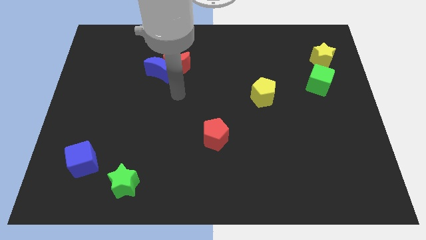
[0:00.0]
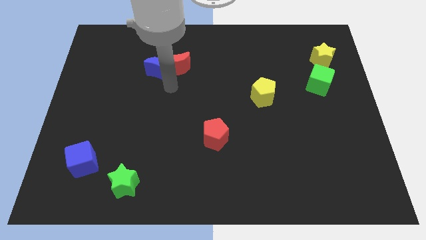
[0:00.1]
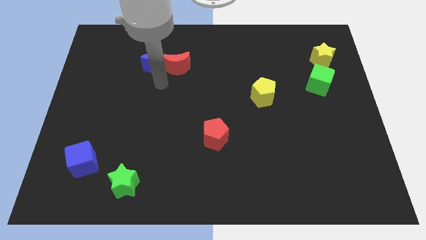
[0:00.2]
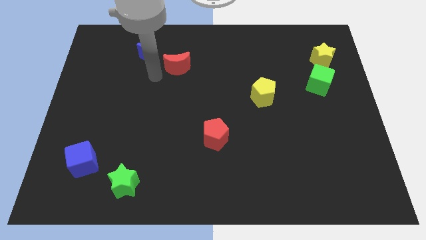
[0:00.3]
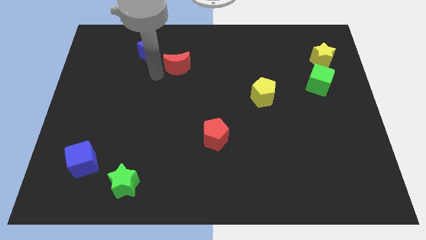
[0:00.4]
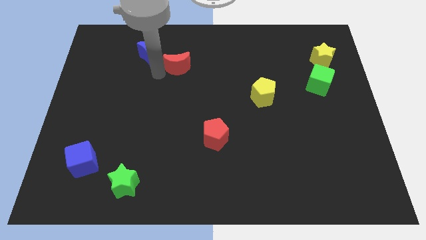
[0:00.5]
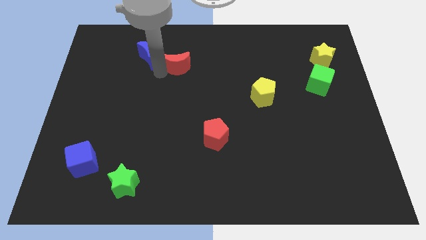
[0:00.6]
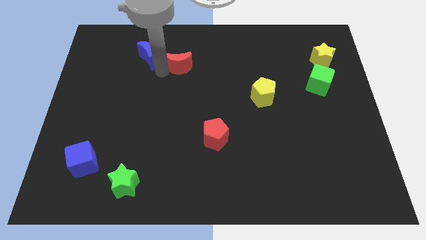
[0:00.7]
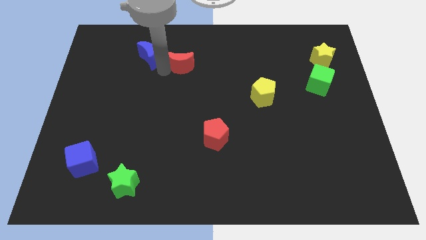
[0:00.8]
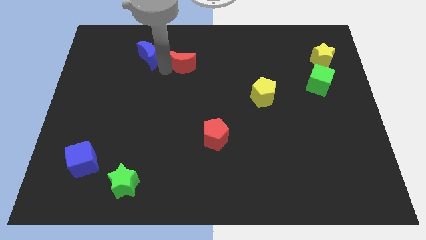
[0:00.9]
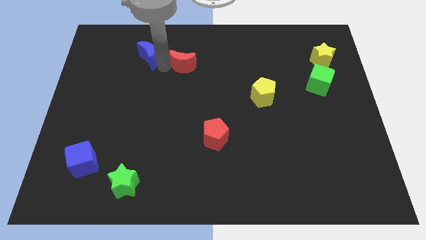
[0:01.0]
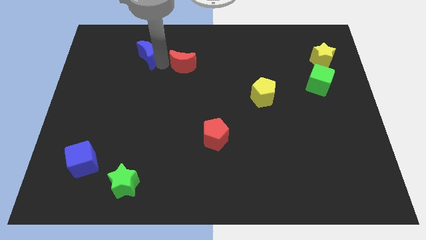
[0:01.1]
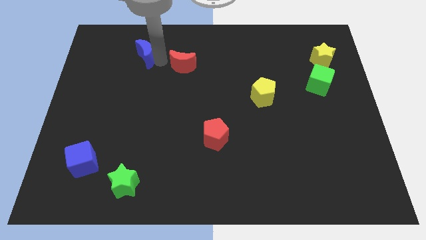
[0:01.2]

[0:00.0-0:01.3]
pull the red moon apart from the blue moon

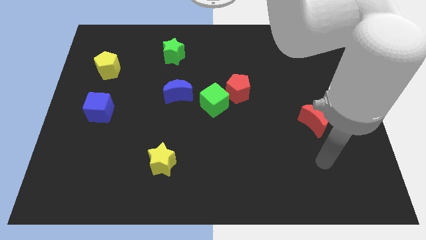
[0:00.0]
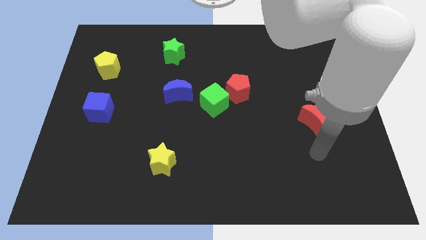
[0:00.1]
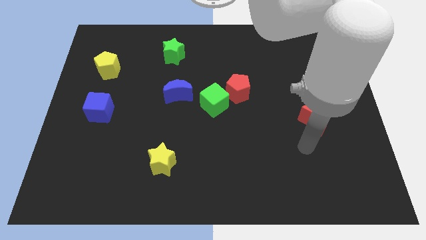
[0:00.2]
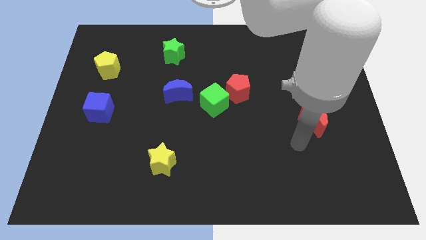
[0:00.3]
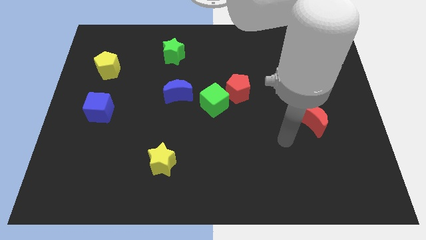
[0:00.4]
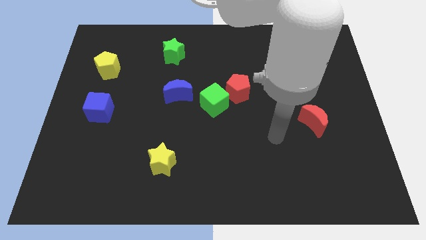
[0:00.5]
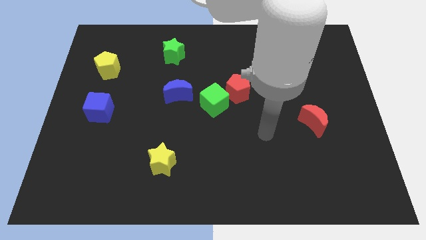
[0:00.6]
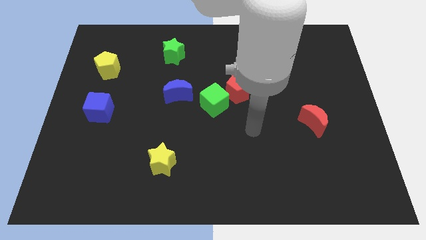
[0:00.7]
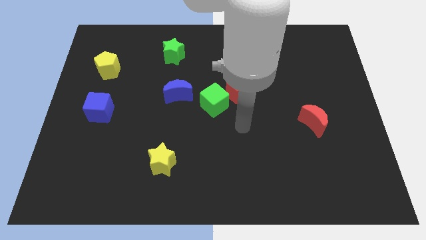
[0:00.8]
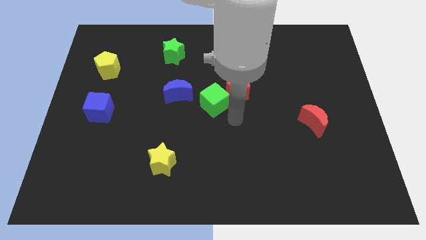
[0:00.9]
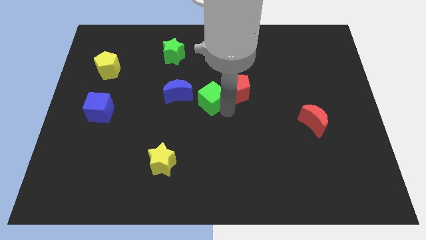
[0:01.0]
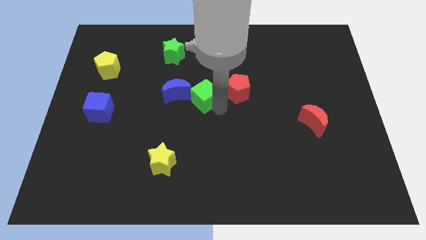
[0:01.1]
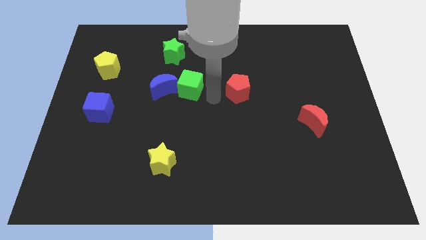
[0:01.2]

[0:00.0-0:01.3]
move the red pentagon away from the green cube

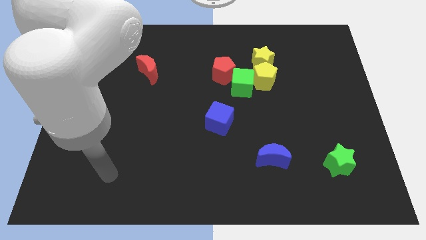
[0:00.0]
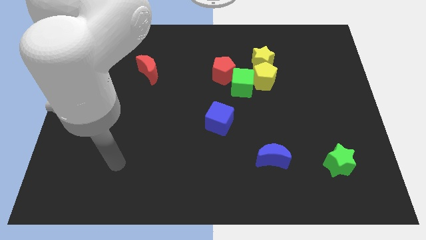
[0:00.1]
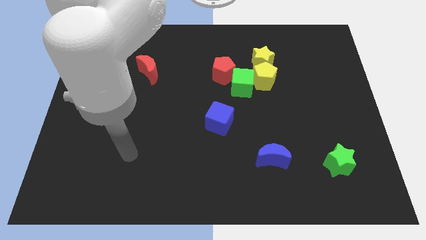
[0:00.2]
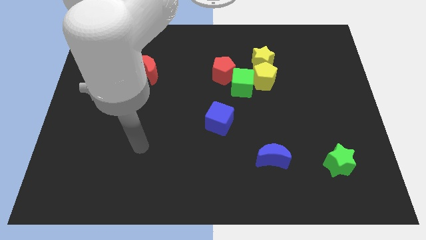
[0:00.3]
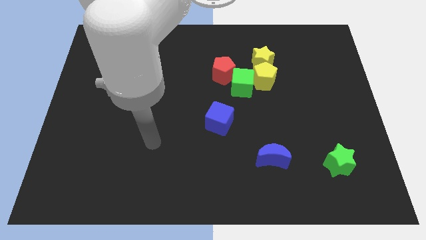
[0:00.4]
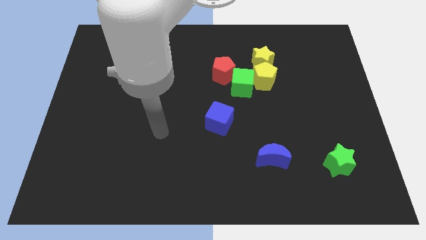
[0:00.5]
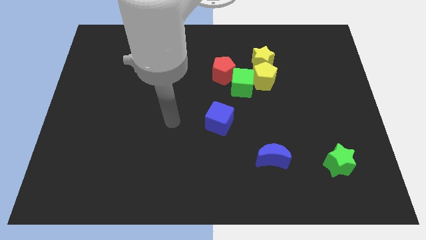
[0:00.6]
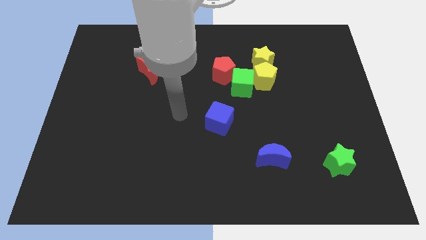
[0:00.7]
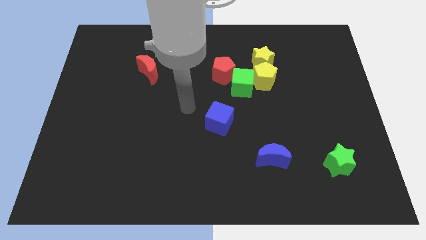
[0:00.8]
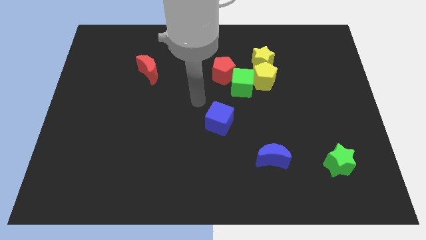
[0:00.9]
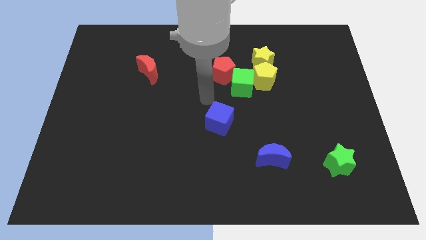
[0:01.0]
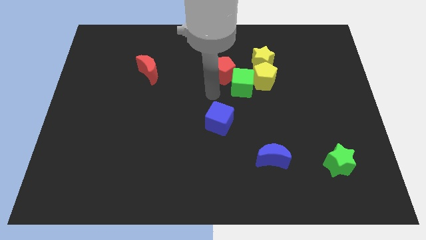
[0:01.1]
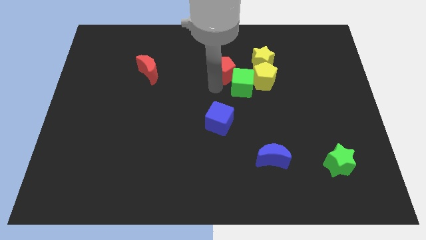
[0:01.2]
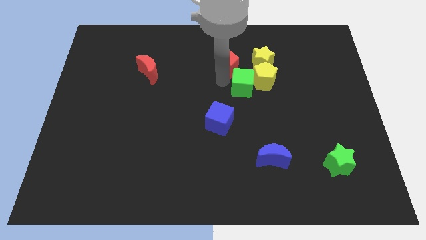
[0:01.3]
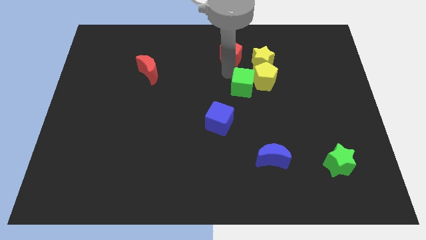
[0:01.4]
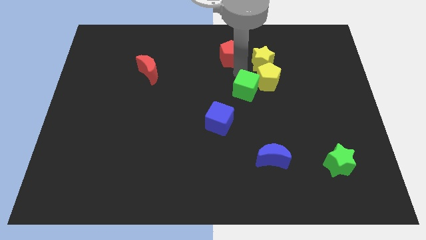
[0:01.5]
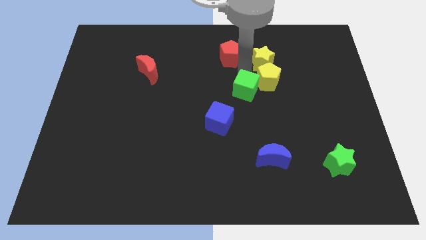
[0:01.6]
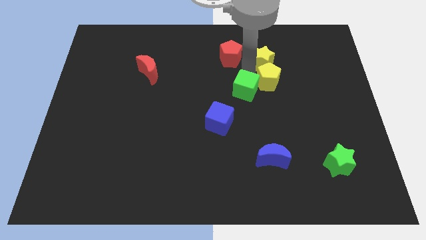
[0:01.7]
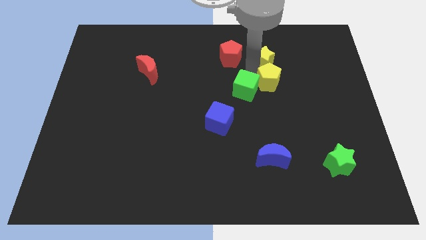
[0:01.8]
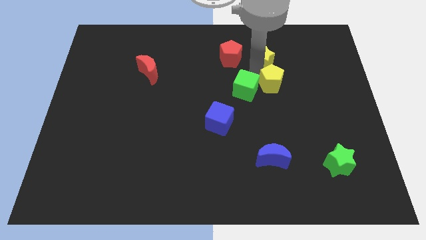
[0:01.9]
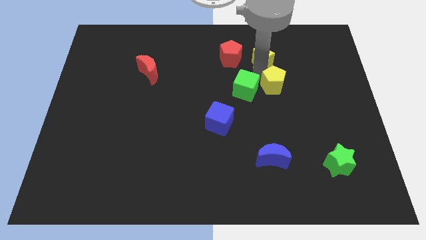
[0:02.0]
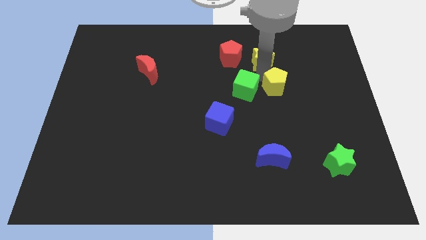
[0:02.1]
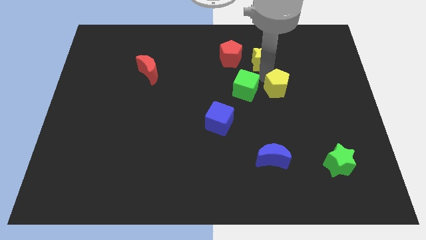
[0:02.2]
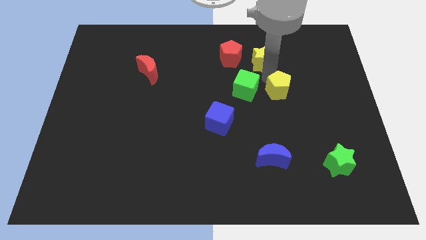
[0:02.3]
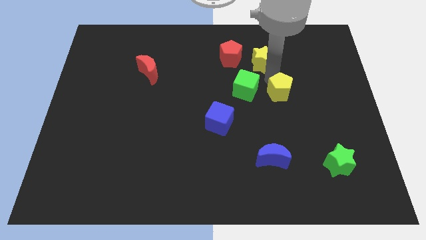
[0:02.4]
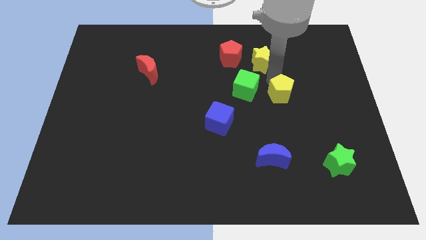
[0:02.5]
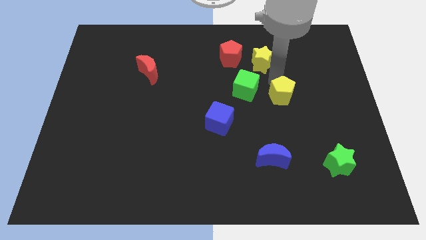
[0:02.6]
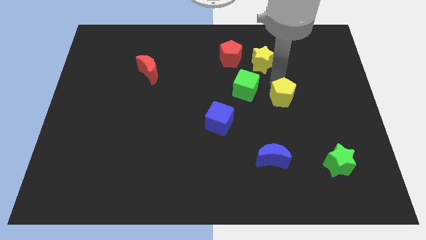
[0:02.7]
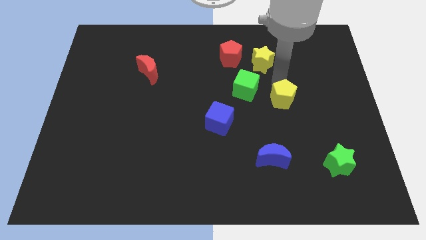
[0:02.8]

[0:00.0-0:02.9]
move the yellow pentagon away from the green cube and yellow star

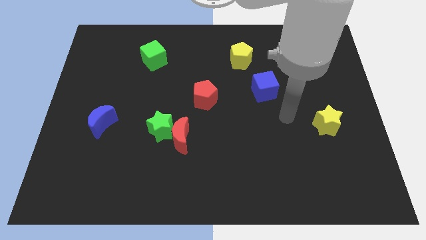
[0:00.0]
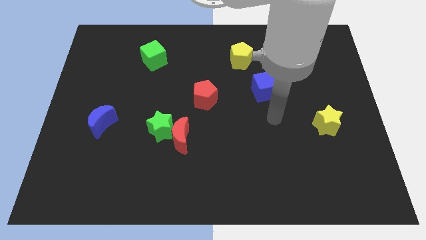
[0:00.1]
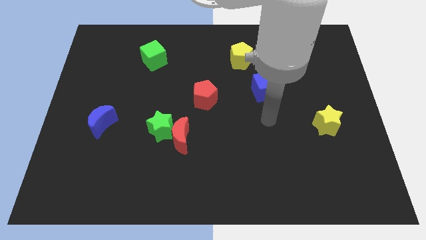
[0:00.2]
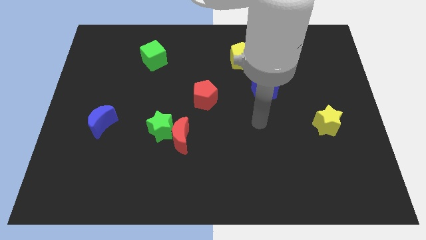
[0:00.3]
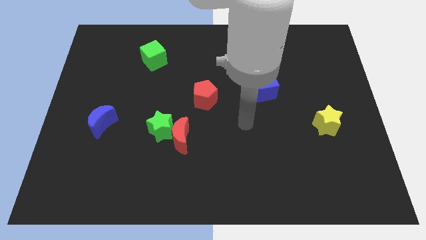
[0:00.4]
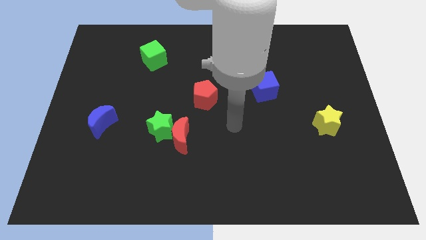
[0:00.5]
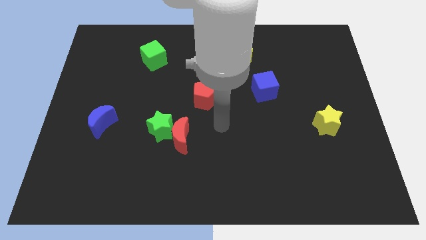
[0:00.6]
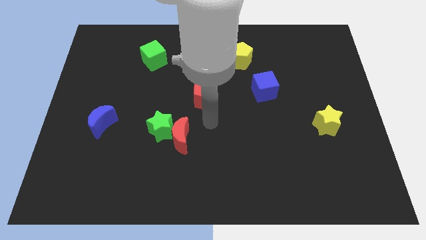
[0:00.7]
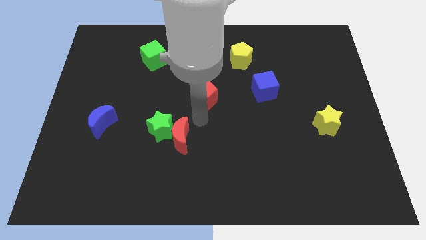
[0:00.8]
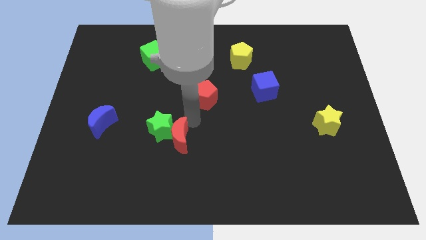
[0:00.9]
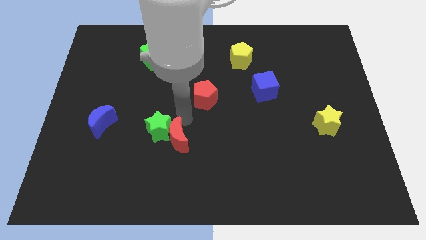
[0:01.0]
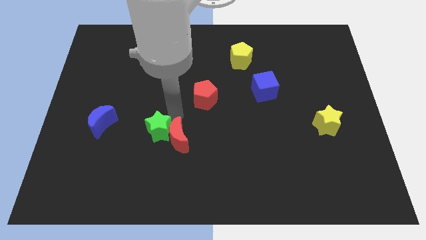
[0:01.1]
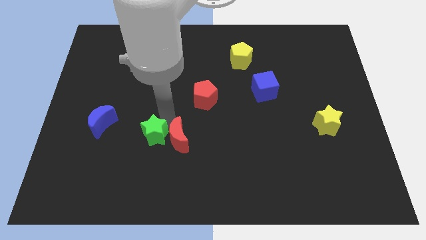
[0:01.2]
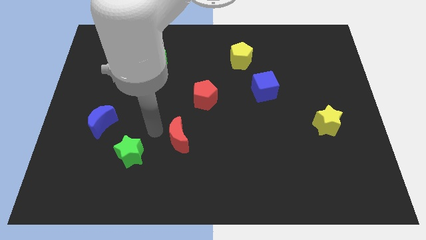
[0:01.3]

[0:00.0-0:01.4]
separate the red moon from the green star

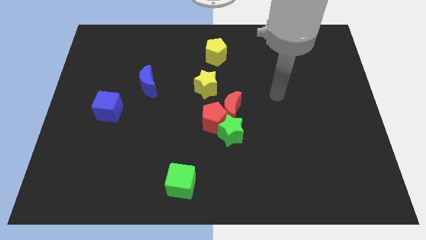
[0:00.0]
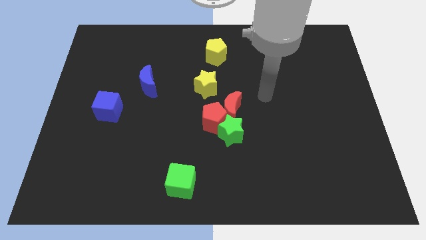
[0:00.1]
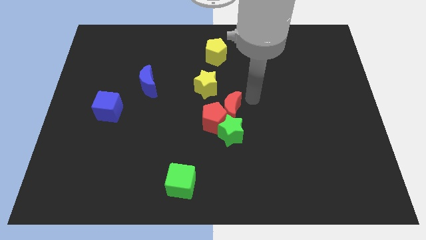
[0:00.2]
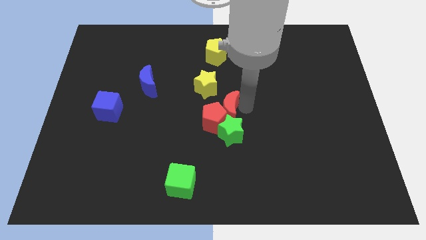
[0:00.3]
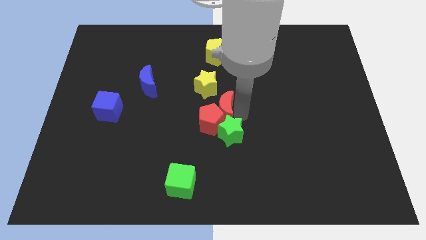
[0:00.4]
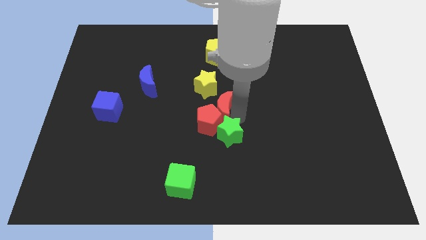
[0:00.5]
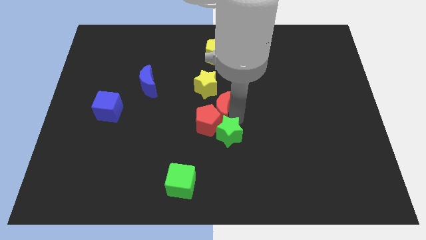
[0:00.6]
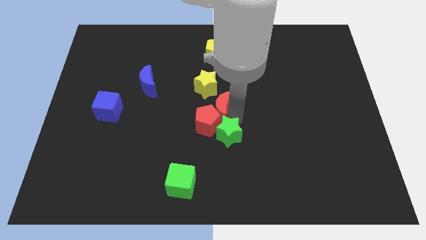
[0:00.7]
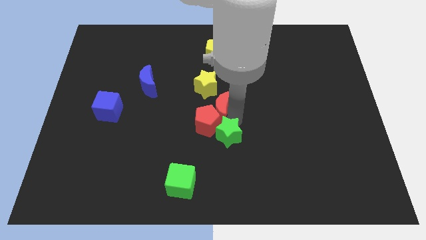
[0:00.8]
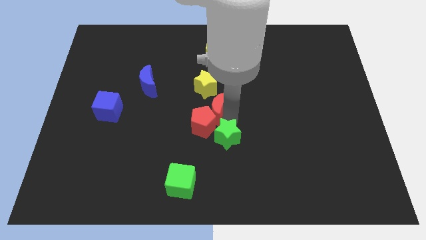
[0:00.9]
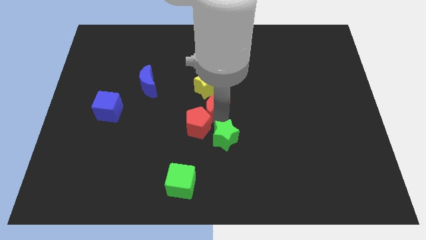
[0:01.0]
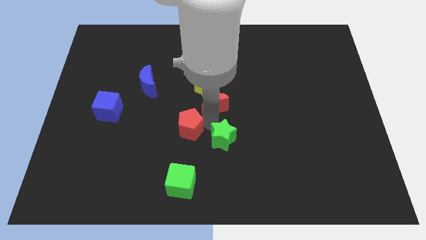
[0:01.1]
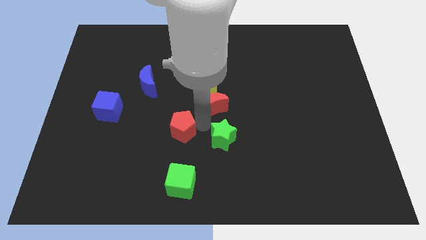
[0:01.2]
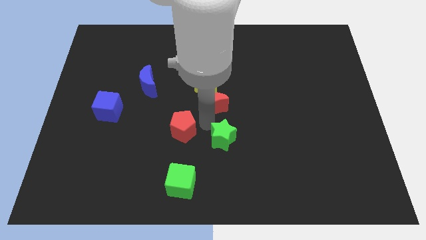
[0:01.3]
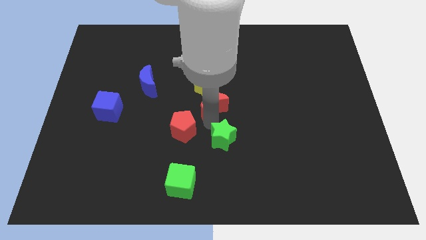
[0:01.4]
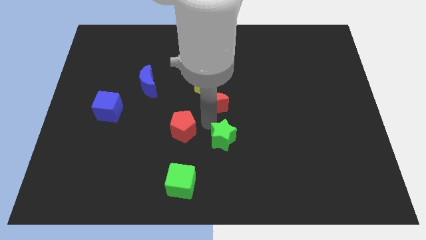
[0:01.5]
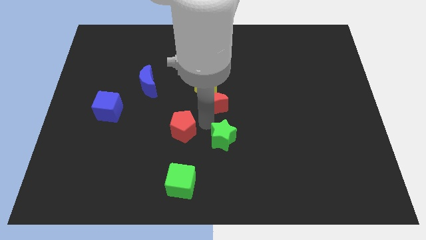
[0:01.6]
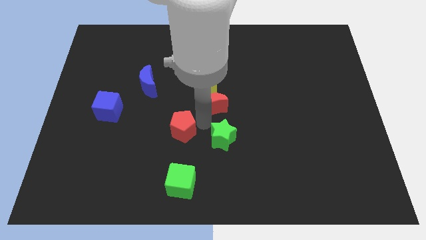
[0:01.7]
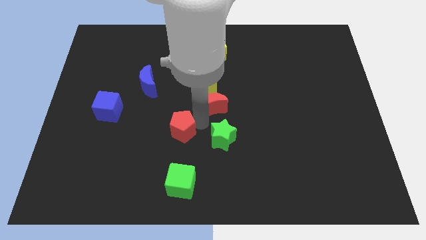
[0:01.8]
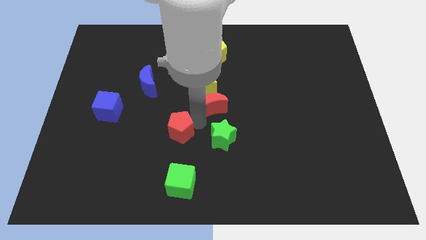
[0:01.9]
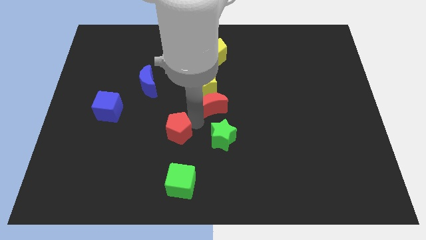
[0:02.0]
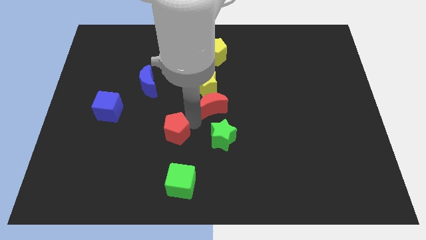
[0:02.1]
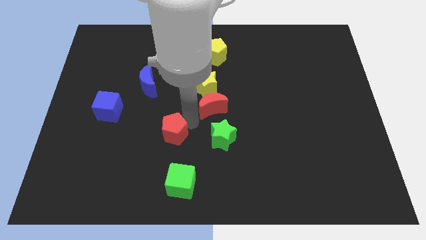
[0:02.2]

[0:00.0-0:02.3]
separate the red pentagon from the red moon and green star
